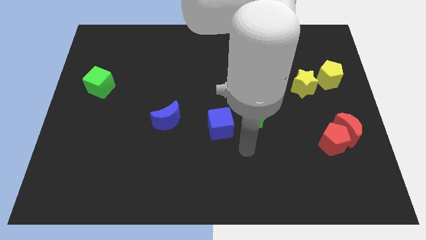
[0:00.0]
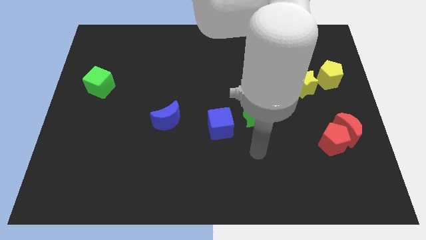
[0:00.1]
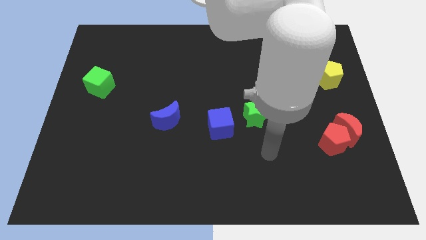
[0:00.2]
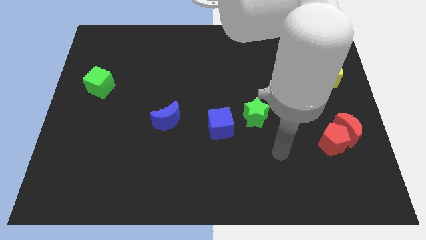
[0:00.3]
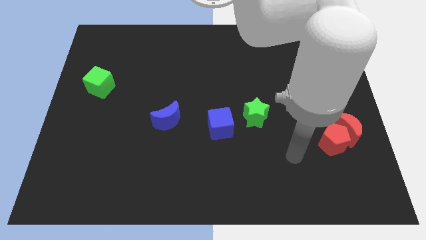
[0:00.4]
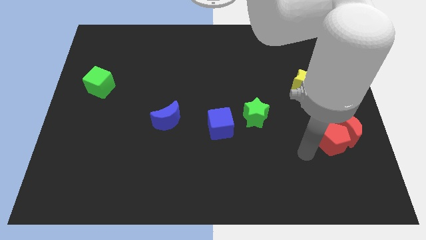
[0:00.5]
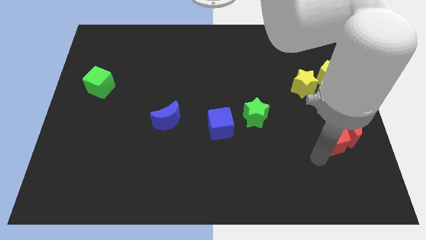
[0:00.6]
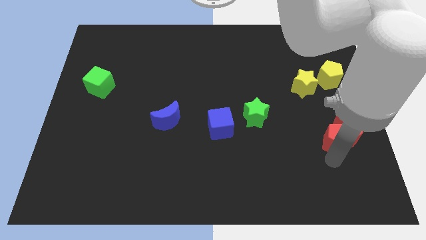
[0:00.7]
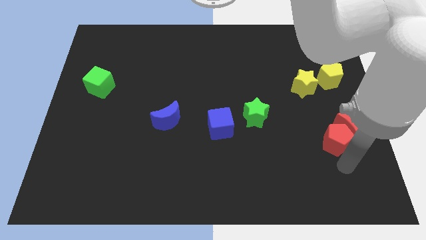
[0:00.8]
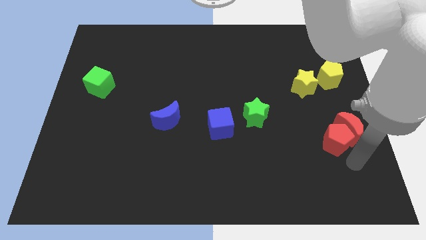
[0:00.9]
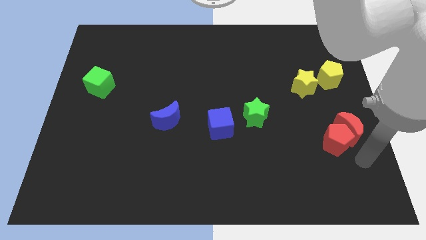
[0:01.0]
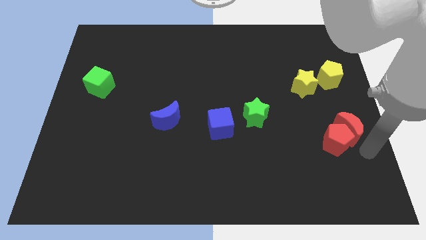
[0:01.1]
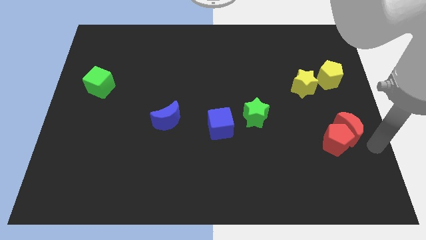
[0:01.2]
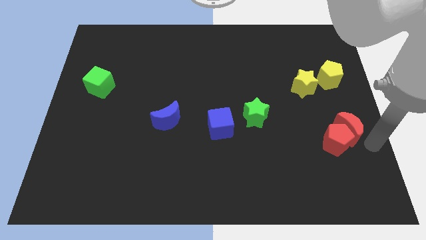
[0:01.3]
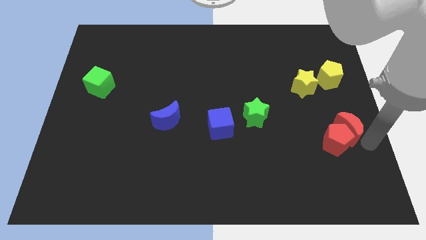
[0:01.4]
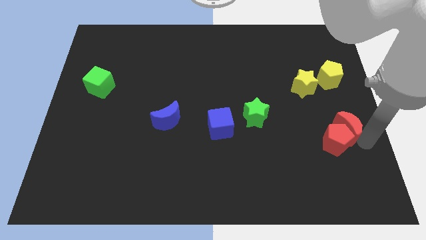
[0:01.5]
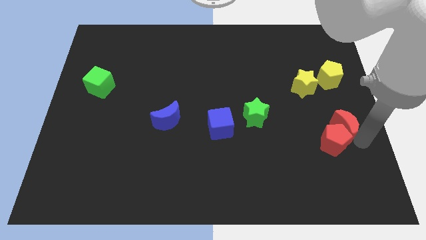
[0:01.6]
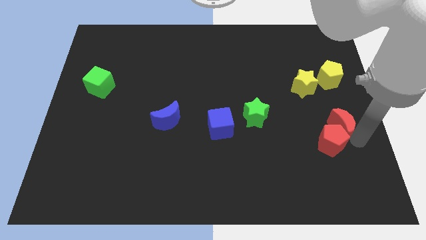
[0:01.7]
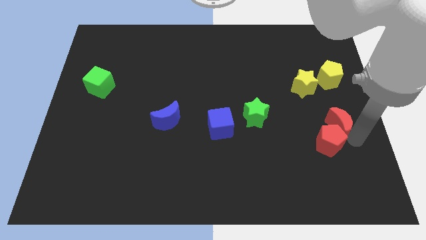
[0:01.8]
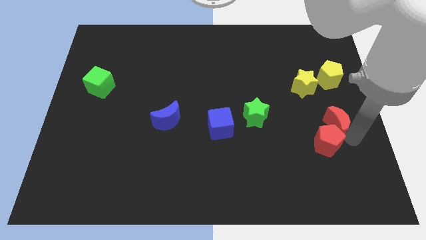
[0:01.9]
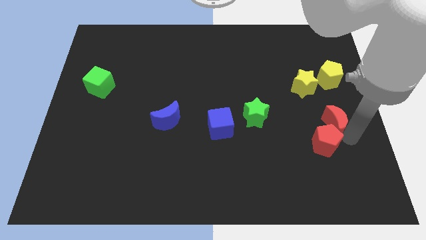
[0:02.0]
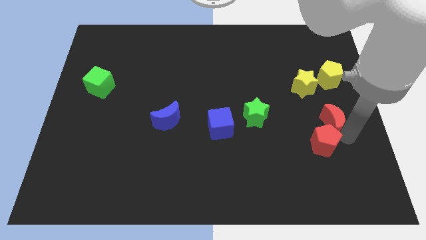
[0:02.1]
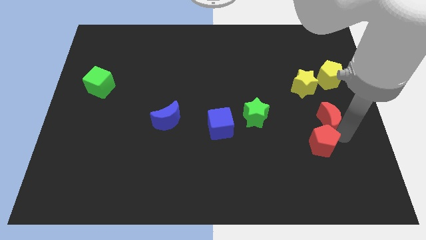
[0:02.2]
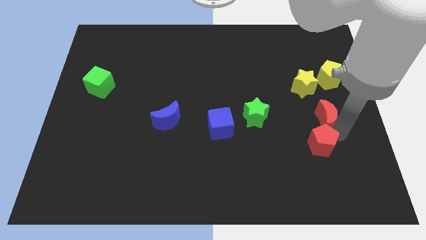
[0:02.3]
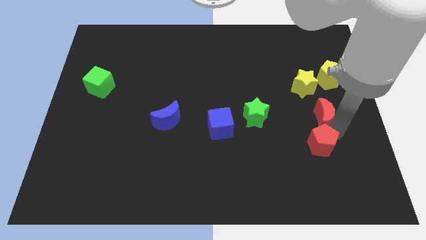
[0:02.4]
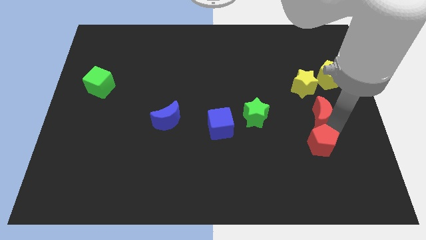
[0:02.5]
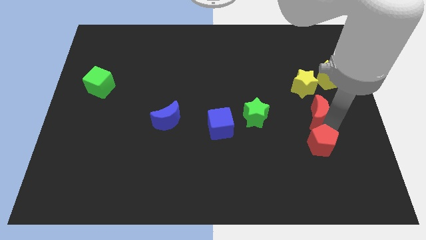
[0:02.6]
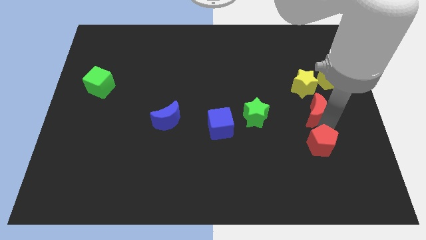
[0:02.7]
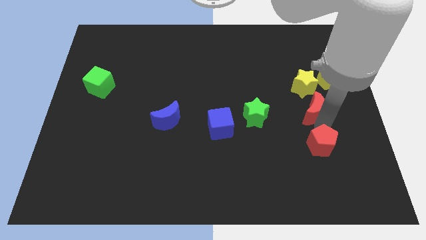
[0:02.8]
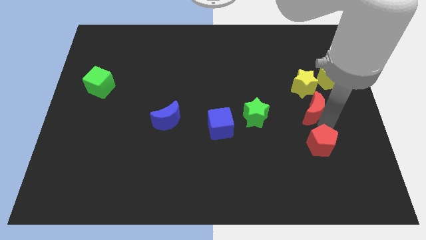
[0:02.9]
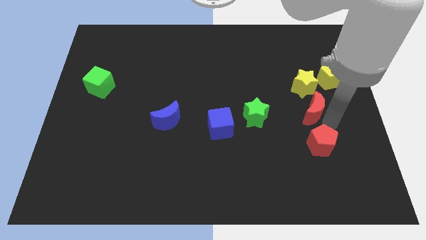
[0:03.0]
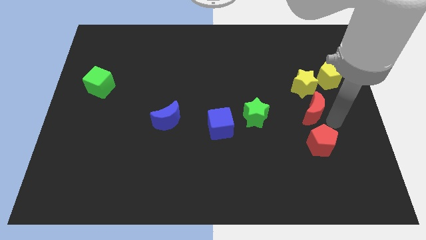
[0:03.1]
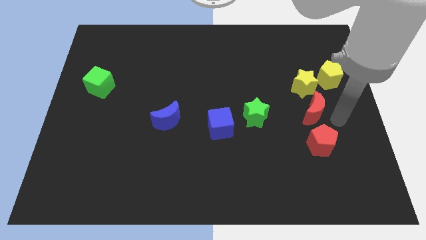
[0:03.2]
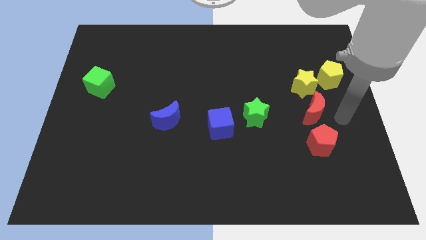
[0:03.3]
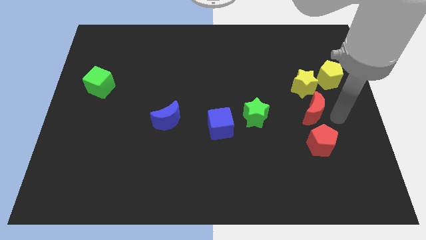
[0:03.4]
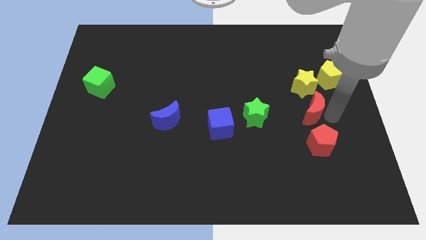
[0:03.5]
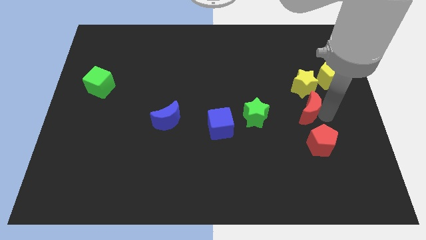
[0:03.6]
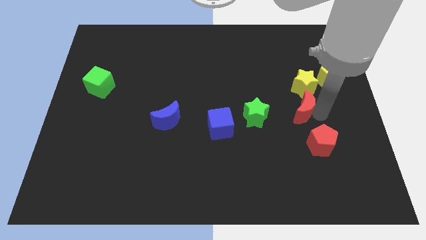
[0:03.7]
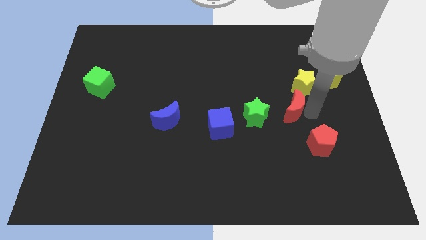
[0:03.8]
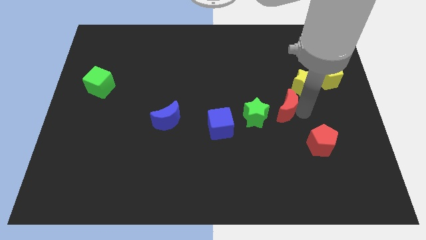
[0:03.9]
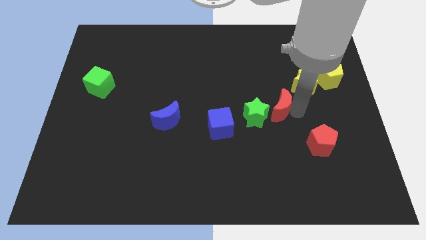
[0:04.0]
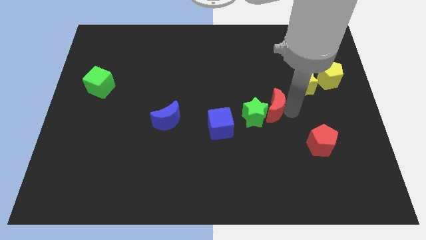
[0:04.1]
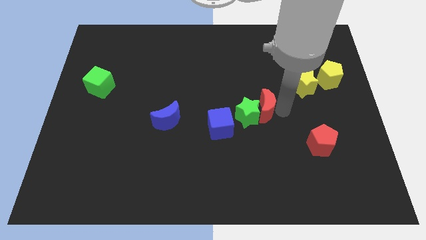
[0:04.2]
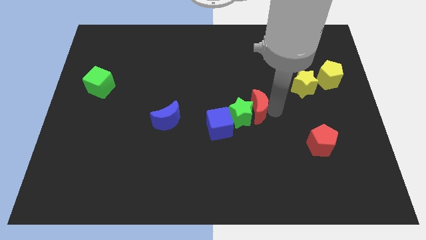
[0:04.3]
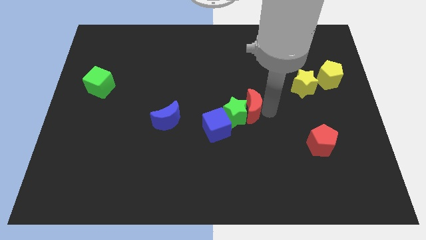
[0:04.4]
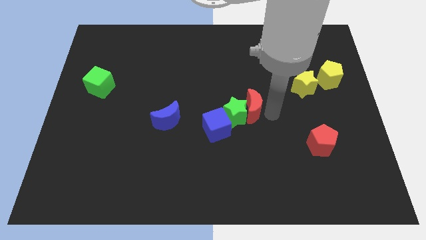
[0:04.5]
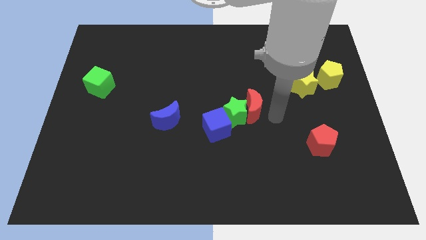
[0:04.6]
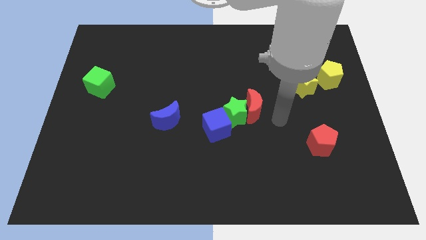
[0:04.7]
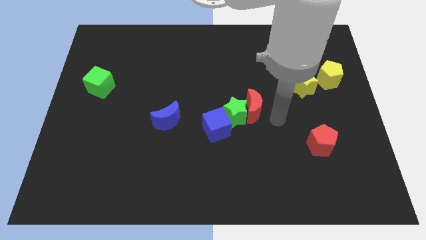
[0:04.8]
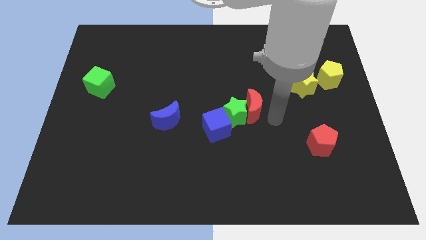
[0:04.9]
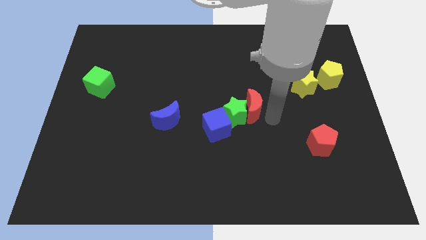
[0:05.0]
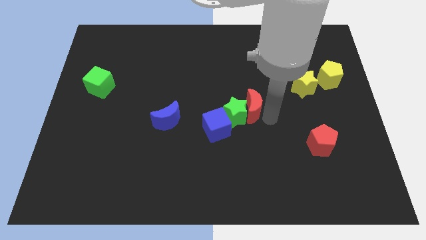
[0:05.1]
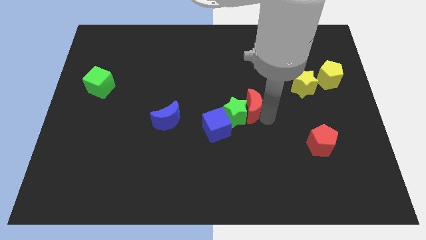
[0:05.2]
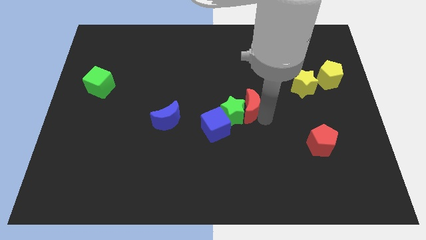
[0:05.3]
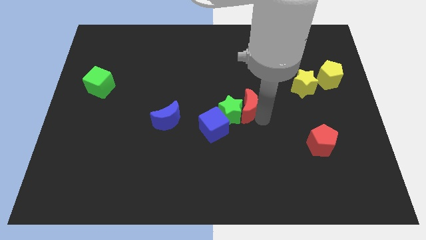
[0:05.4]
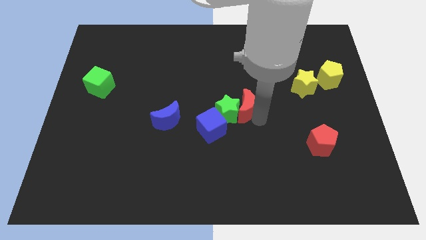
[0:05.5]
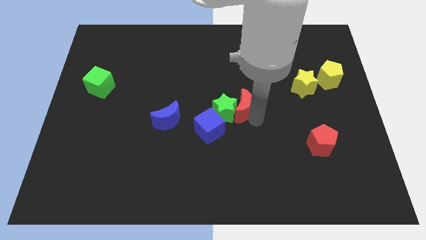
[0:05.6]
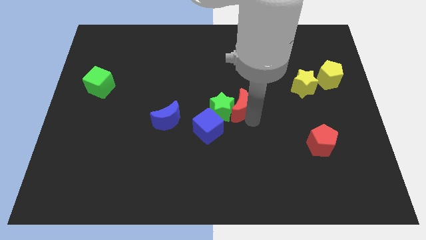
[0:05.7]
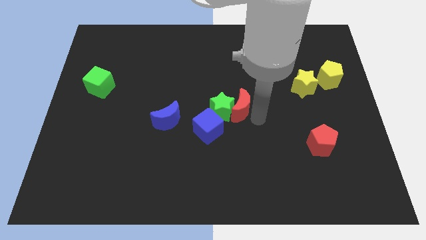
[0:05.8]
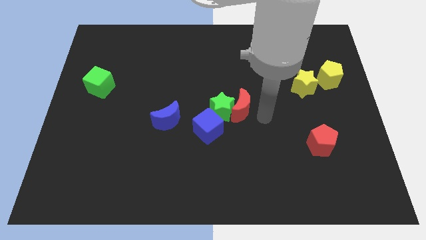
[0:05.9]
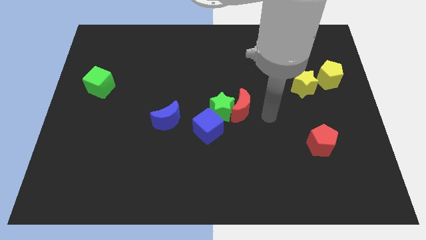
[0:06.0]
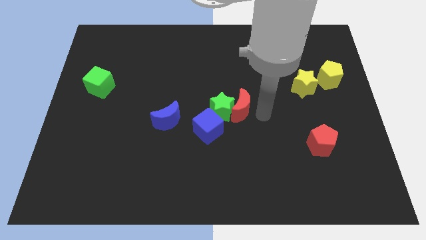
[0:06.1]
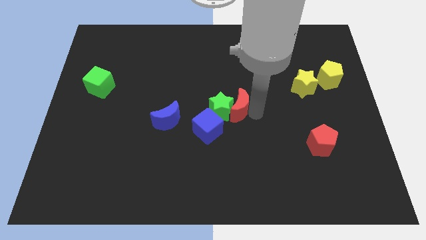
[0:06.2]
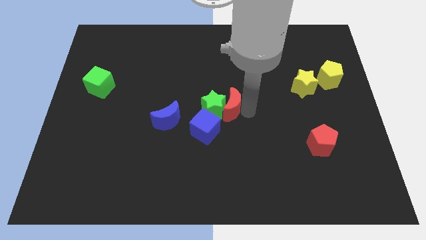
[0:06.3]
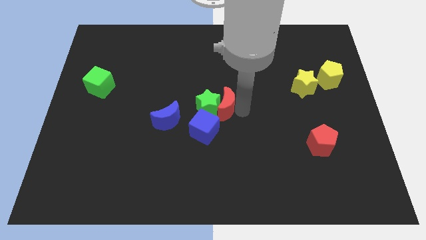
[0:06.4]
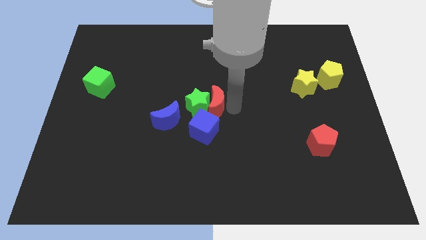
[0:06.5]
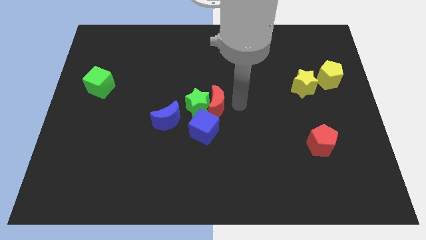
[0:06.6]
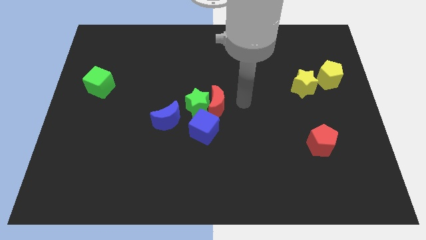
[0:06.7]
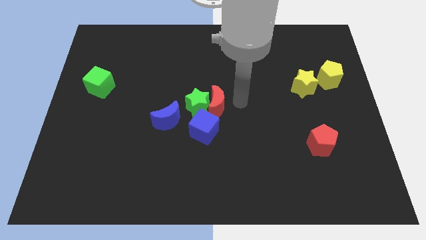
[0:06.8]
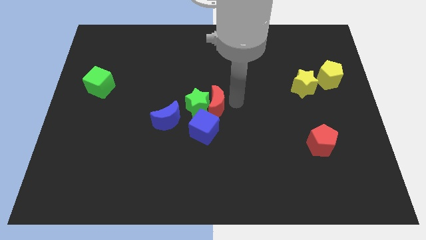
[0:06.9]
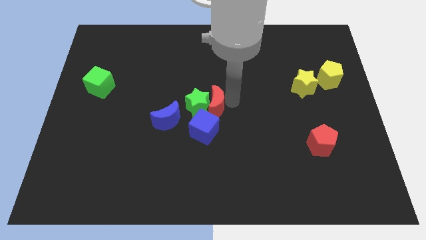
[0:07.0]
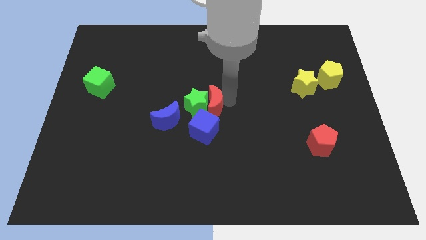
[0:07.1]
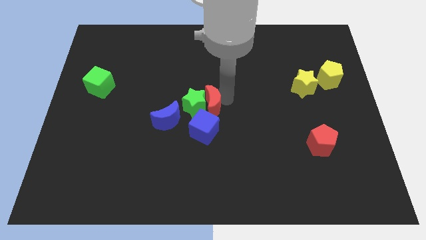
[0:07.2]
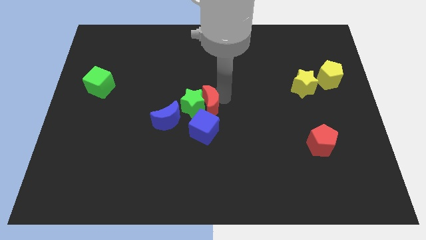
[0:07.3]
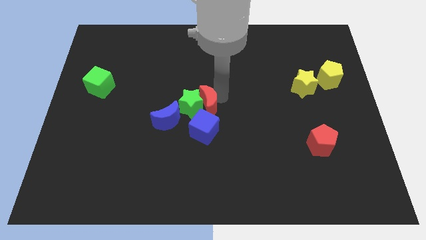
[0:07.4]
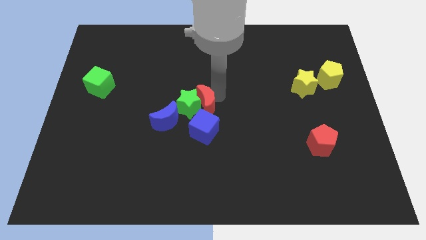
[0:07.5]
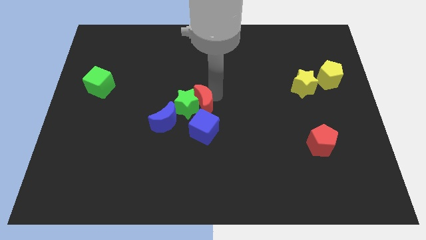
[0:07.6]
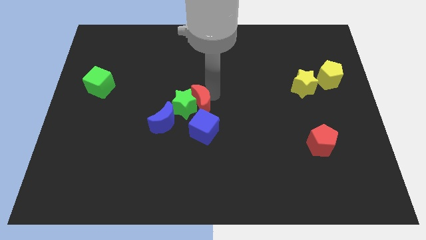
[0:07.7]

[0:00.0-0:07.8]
push the red moon diagonally up and to the left of the blue cube
